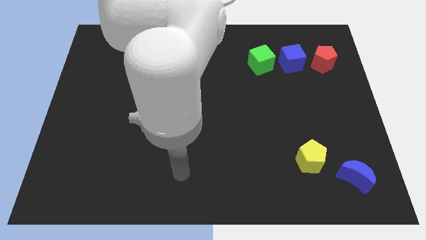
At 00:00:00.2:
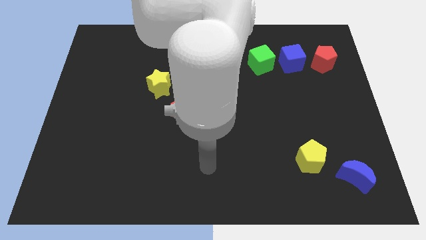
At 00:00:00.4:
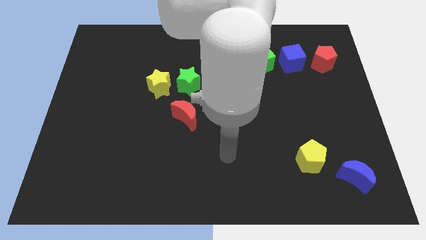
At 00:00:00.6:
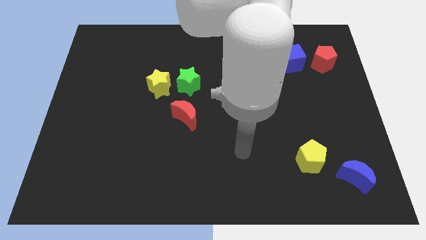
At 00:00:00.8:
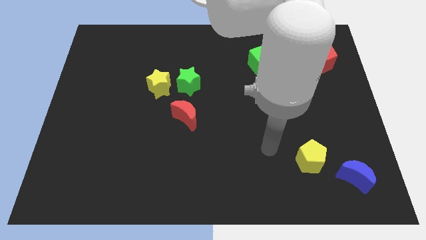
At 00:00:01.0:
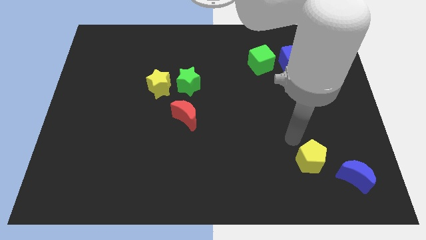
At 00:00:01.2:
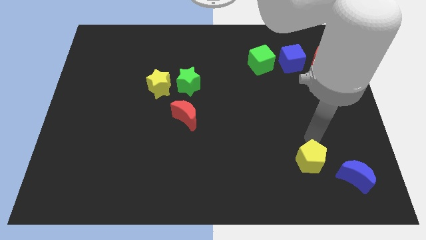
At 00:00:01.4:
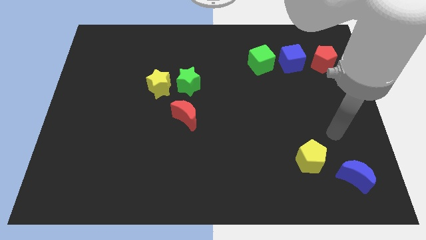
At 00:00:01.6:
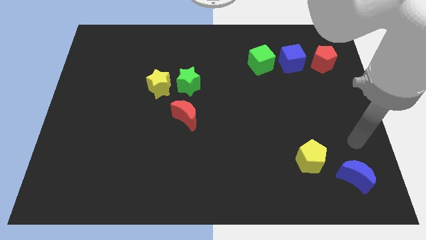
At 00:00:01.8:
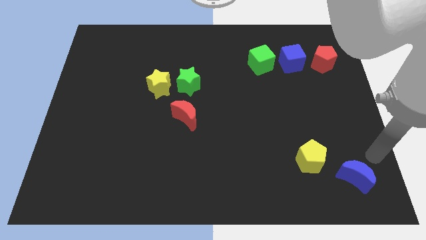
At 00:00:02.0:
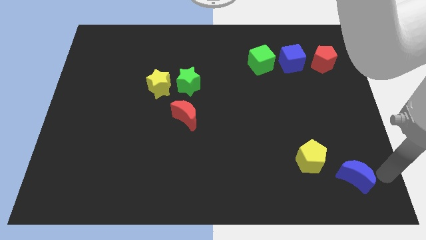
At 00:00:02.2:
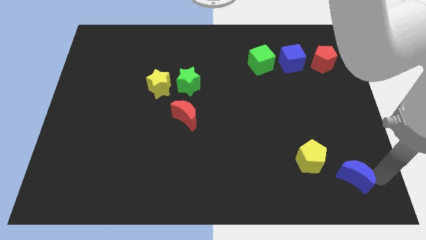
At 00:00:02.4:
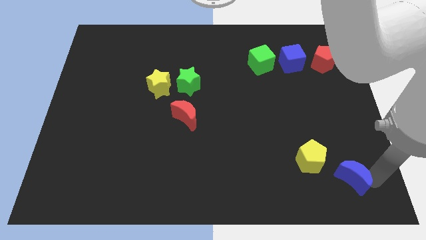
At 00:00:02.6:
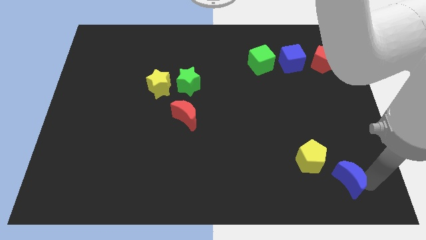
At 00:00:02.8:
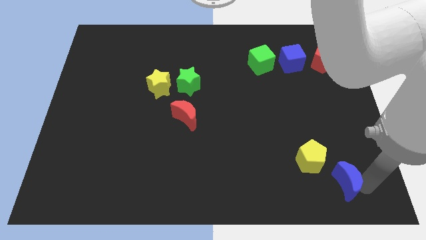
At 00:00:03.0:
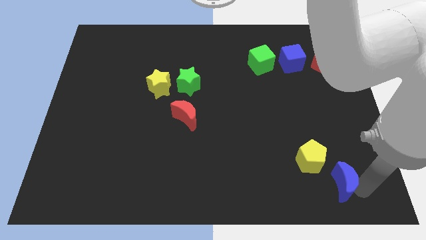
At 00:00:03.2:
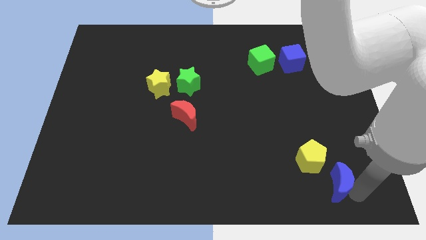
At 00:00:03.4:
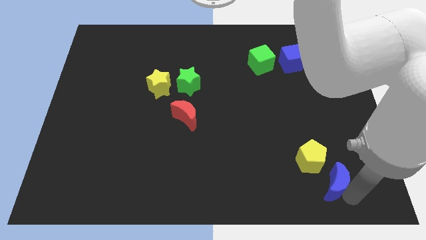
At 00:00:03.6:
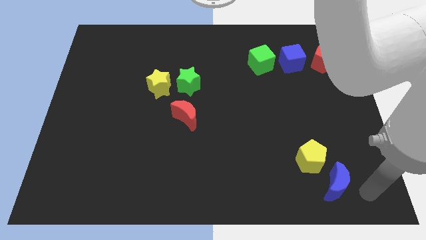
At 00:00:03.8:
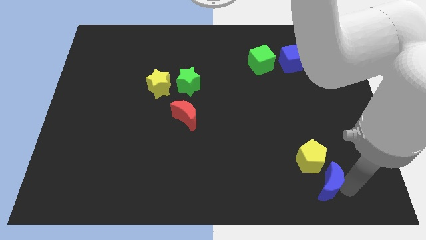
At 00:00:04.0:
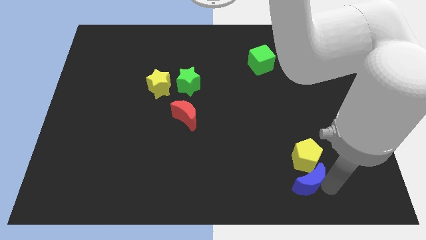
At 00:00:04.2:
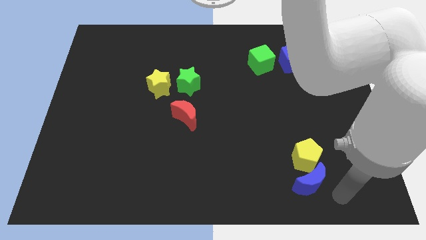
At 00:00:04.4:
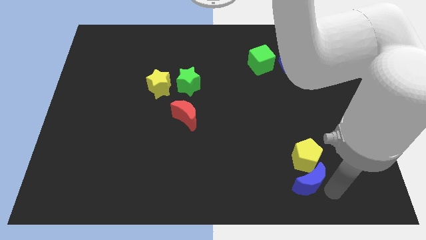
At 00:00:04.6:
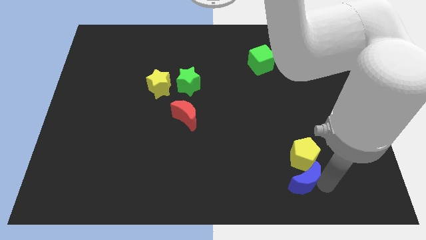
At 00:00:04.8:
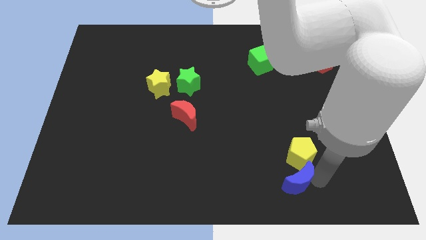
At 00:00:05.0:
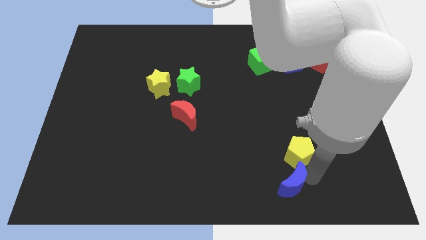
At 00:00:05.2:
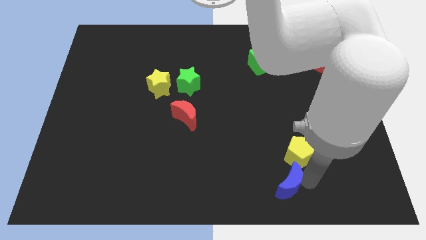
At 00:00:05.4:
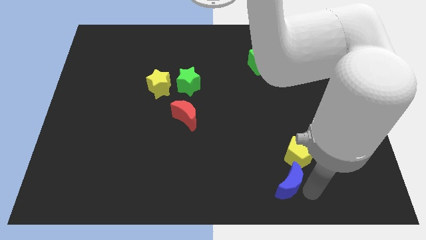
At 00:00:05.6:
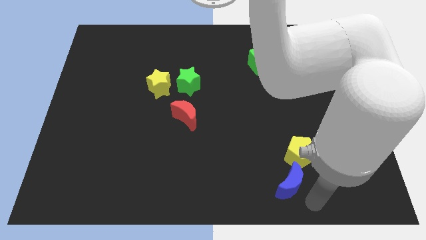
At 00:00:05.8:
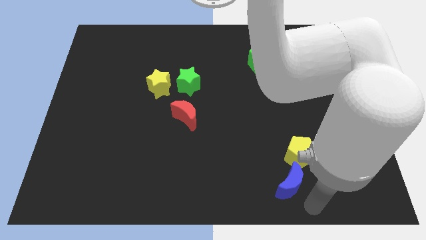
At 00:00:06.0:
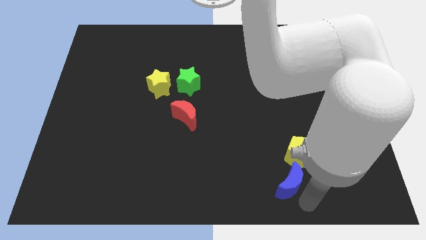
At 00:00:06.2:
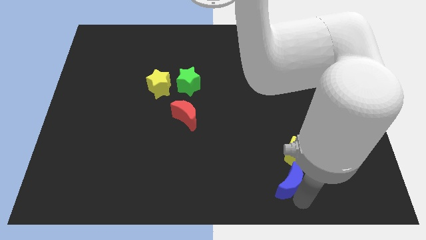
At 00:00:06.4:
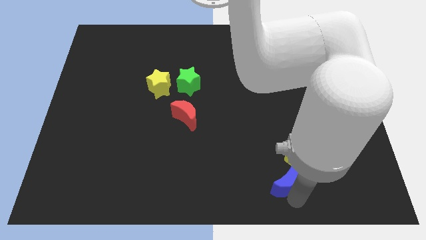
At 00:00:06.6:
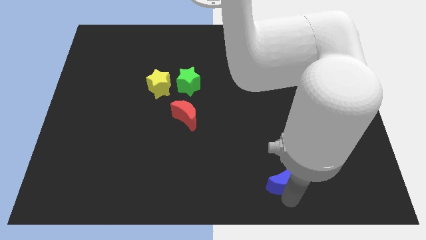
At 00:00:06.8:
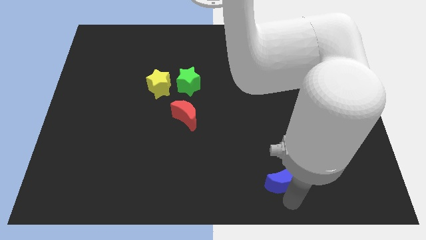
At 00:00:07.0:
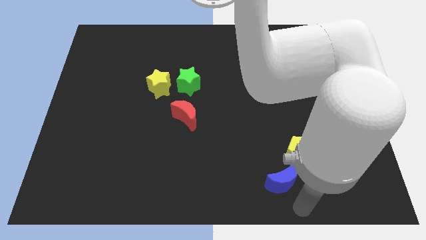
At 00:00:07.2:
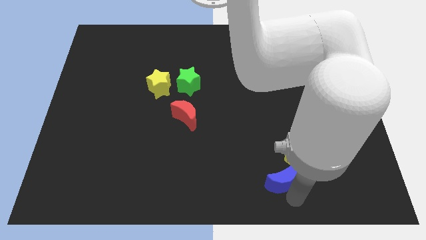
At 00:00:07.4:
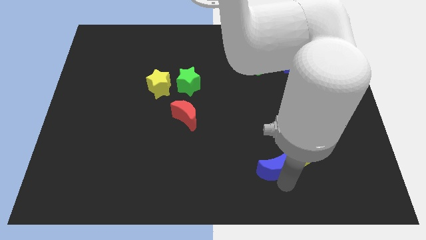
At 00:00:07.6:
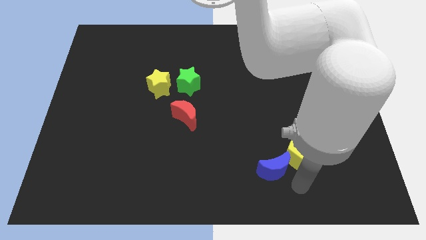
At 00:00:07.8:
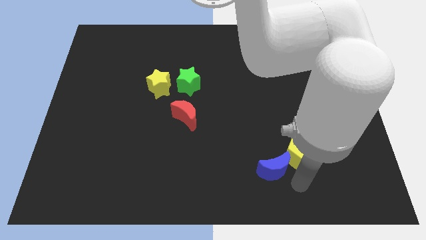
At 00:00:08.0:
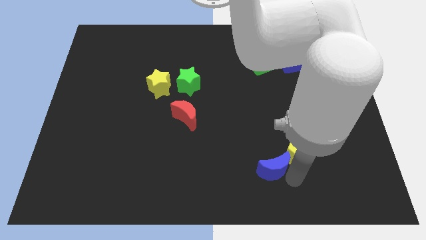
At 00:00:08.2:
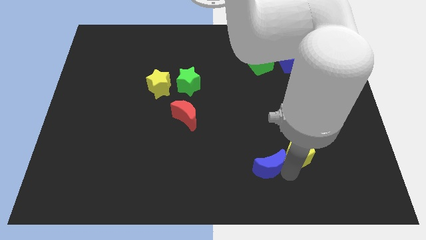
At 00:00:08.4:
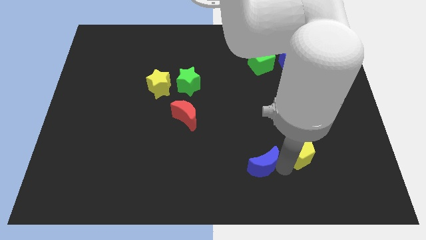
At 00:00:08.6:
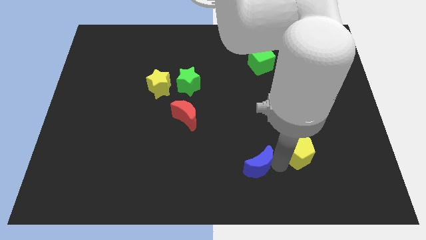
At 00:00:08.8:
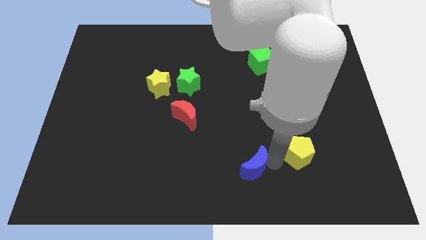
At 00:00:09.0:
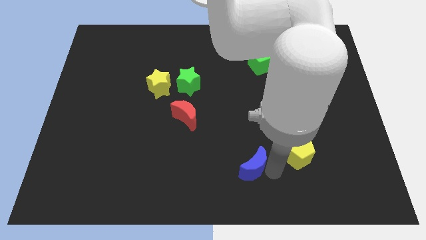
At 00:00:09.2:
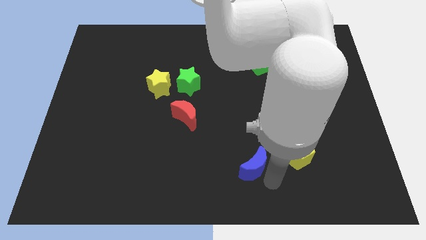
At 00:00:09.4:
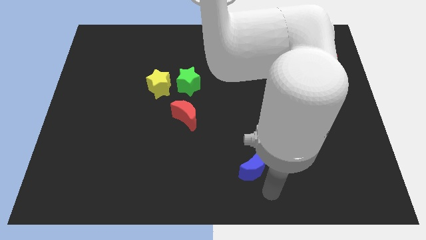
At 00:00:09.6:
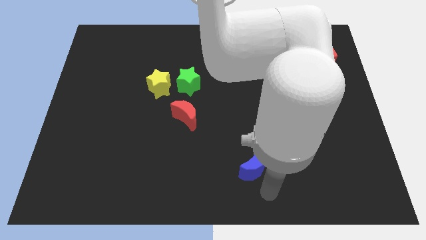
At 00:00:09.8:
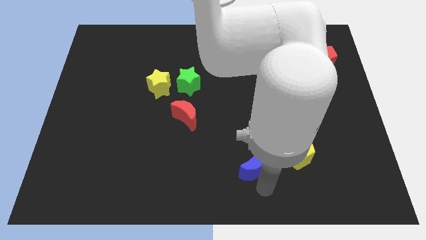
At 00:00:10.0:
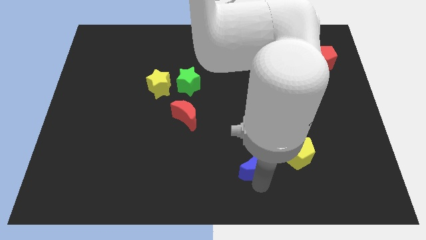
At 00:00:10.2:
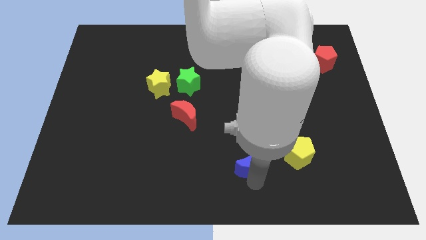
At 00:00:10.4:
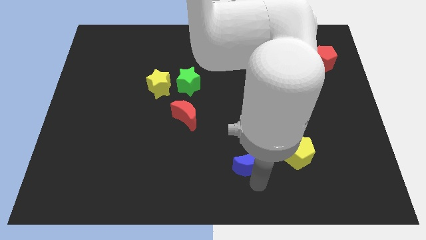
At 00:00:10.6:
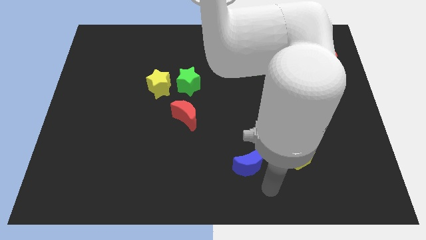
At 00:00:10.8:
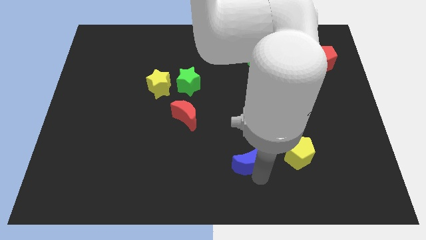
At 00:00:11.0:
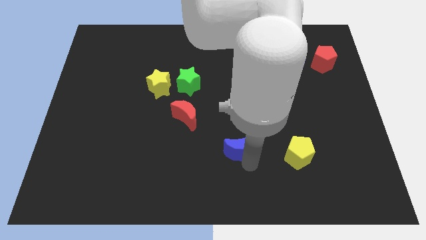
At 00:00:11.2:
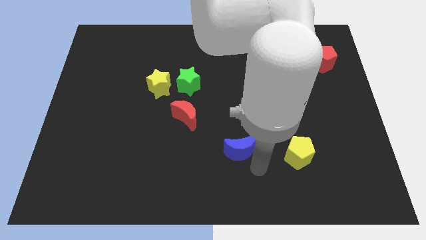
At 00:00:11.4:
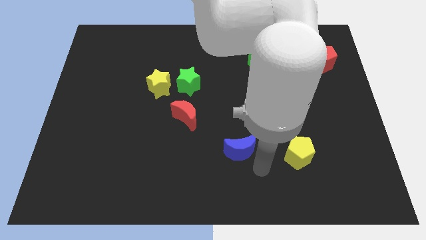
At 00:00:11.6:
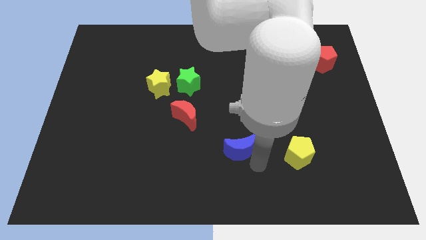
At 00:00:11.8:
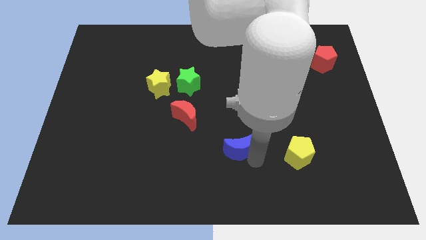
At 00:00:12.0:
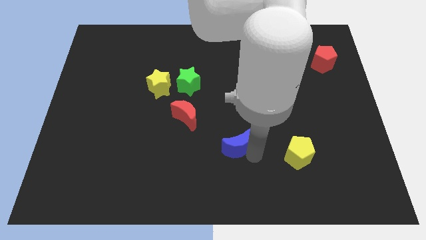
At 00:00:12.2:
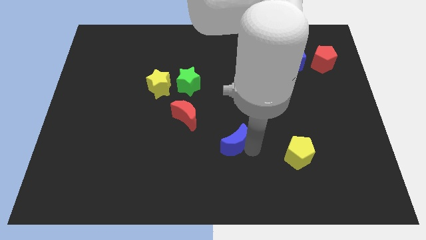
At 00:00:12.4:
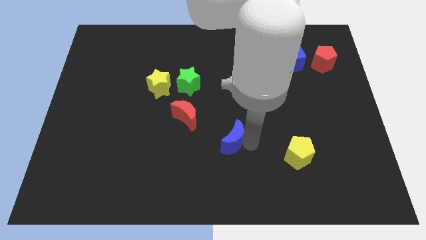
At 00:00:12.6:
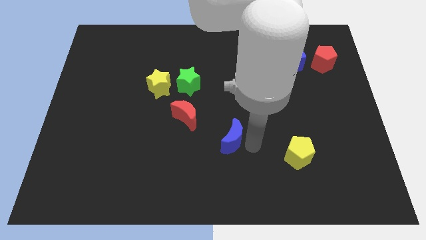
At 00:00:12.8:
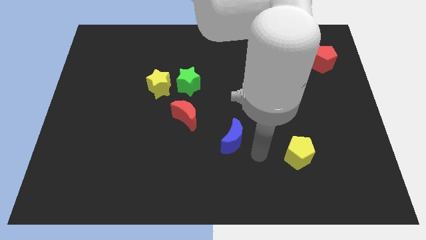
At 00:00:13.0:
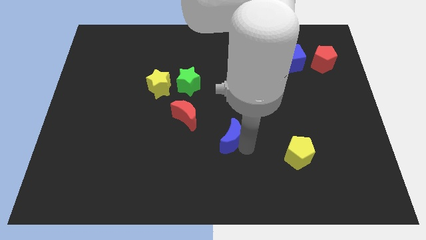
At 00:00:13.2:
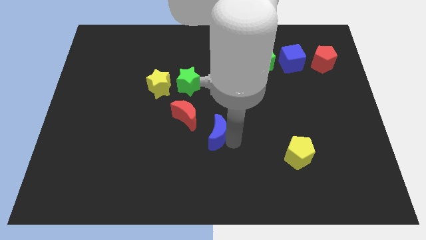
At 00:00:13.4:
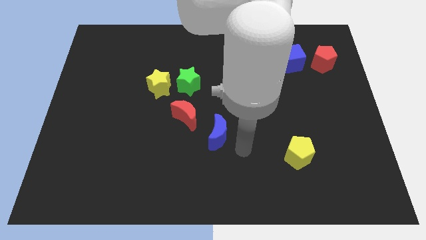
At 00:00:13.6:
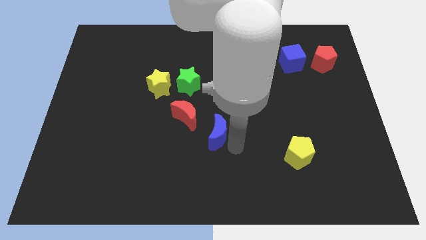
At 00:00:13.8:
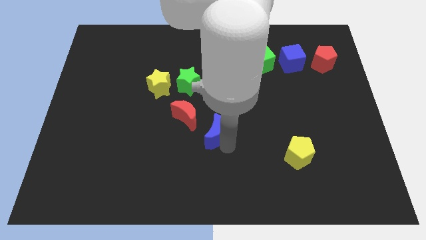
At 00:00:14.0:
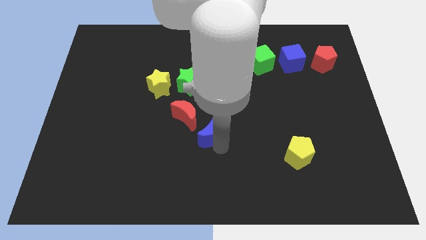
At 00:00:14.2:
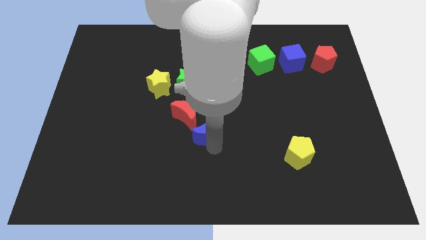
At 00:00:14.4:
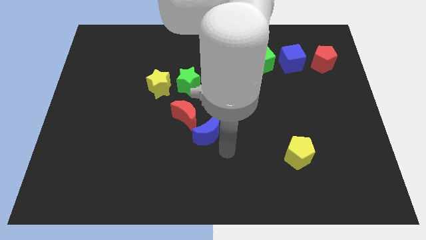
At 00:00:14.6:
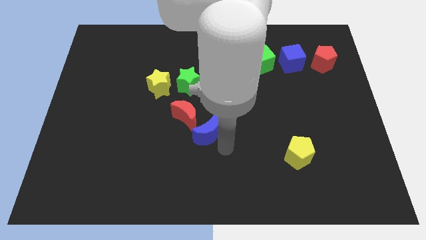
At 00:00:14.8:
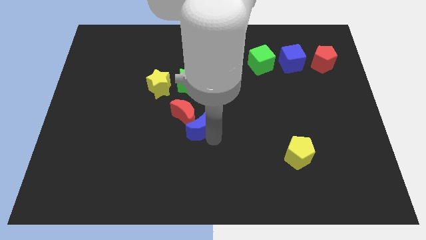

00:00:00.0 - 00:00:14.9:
move the blue moon next to the red moon
